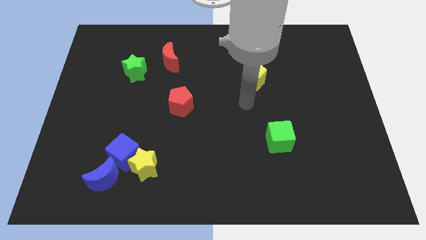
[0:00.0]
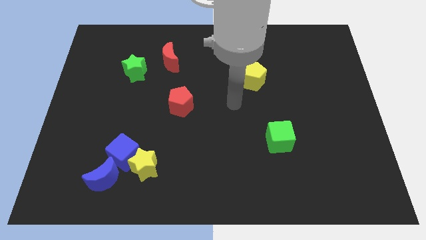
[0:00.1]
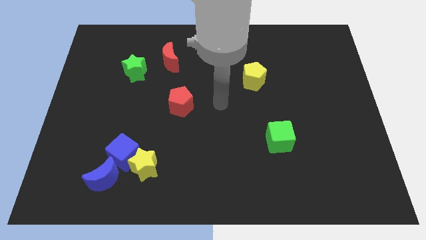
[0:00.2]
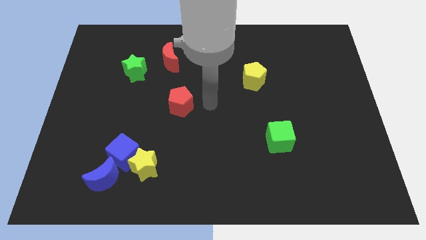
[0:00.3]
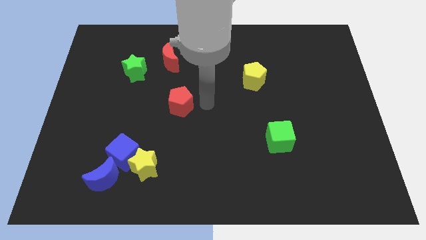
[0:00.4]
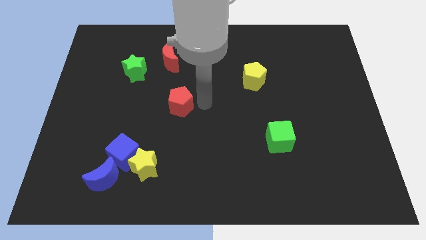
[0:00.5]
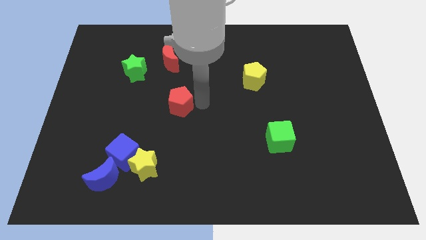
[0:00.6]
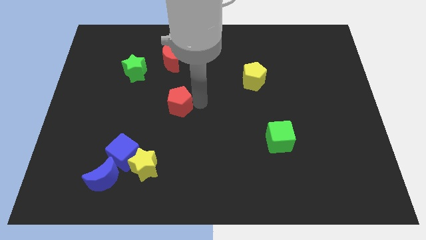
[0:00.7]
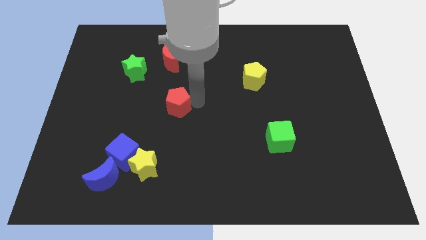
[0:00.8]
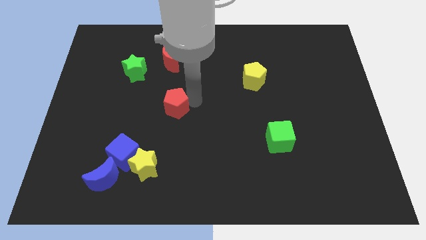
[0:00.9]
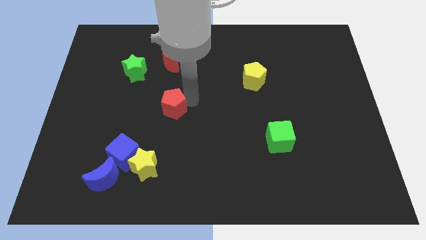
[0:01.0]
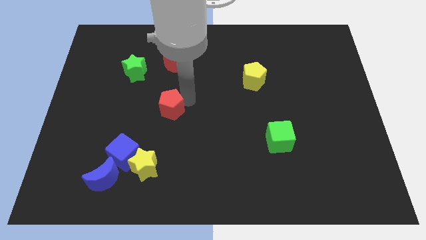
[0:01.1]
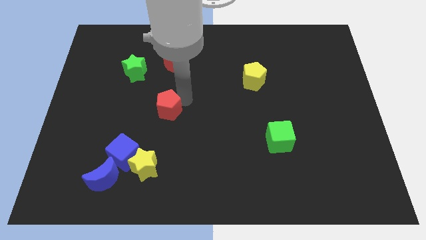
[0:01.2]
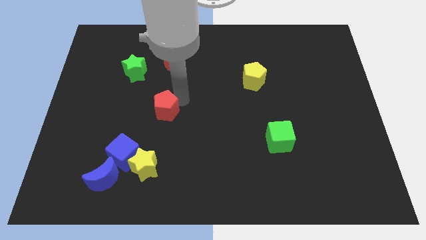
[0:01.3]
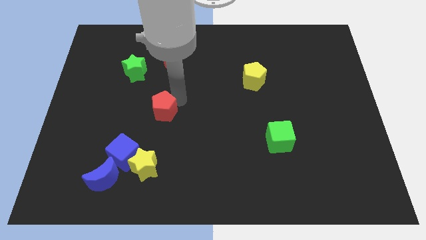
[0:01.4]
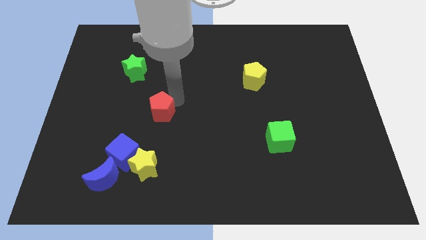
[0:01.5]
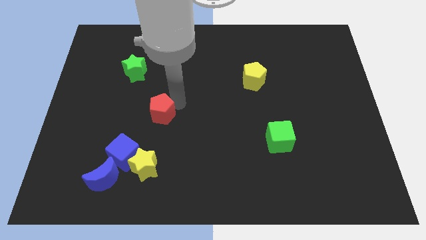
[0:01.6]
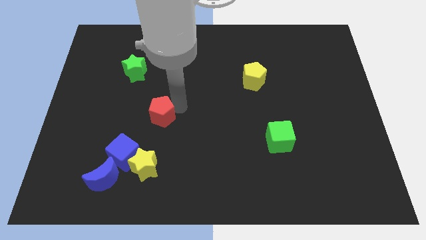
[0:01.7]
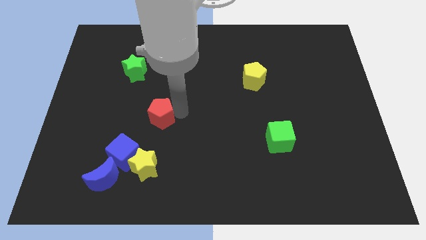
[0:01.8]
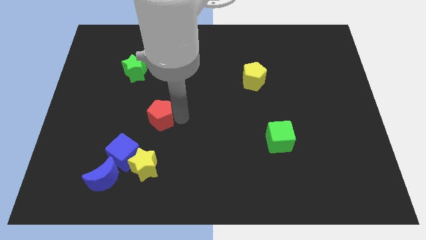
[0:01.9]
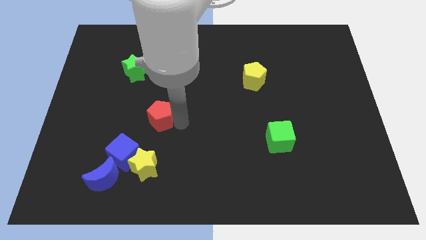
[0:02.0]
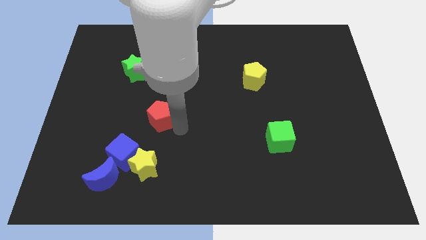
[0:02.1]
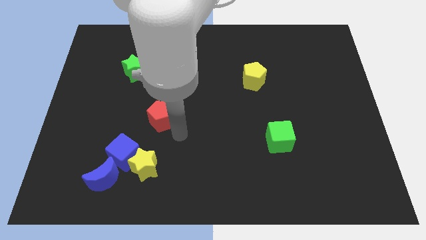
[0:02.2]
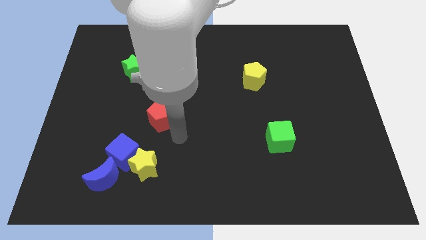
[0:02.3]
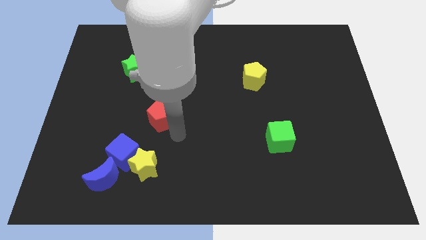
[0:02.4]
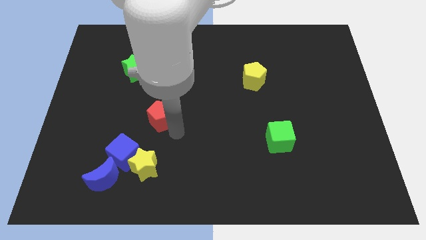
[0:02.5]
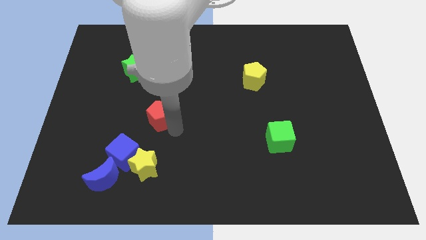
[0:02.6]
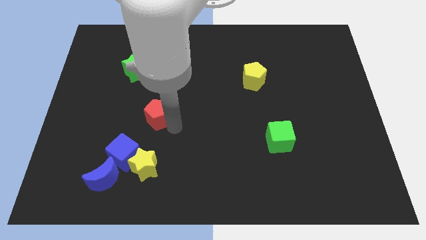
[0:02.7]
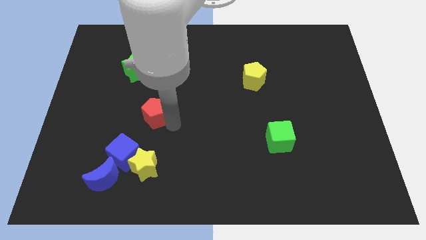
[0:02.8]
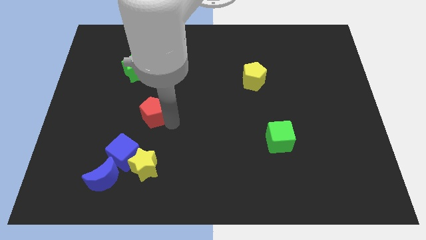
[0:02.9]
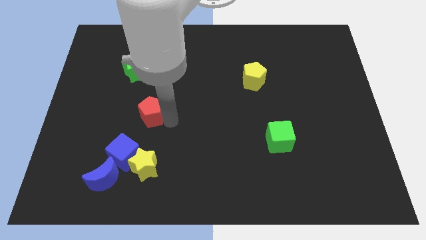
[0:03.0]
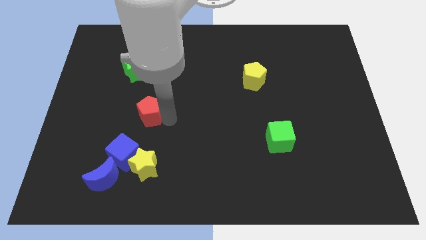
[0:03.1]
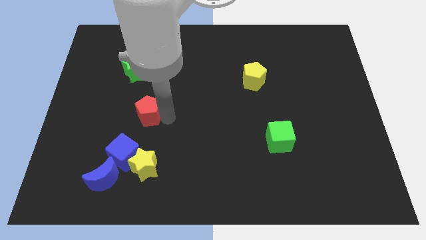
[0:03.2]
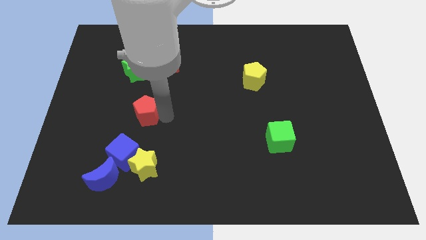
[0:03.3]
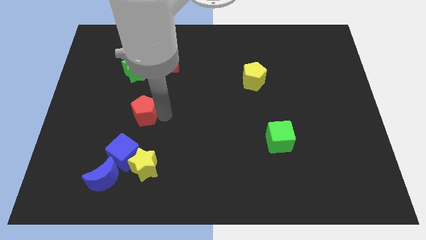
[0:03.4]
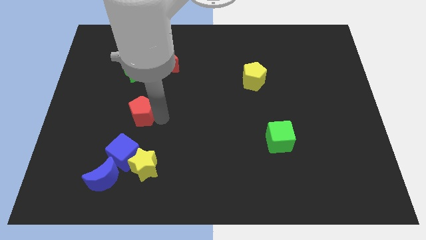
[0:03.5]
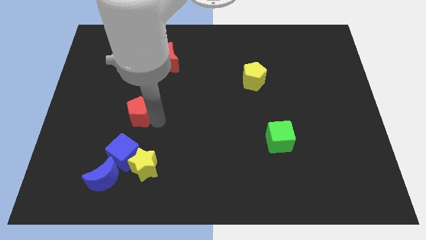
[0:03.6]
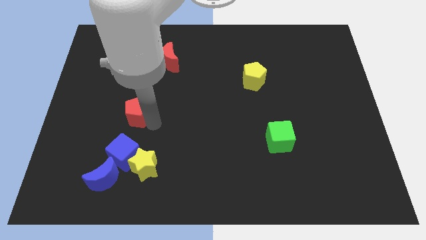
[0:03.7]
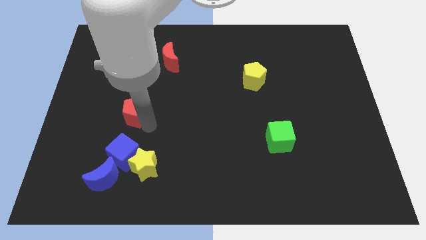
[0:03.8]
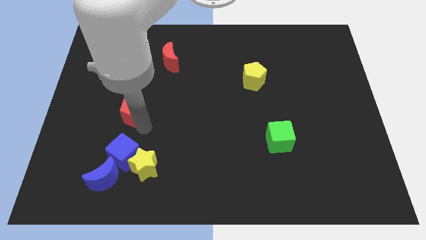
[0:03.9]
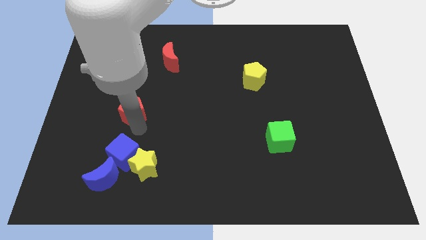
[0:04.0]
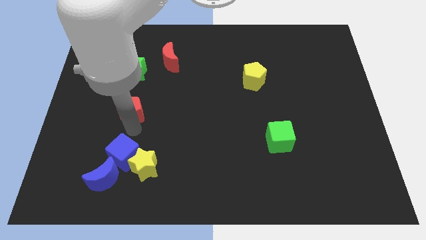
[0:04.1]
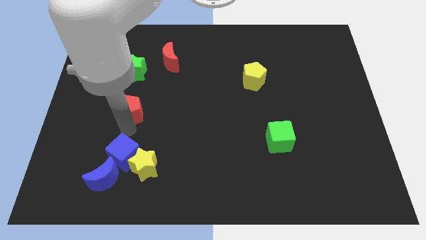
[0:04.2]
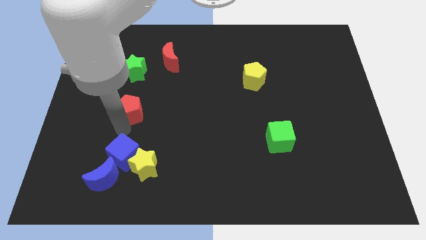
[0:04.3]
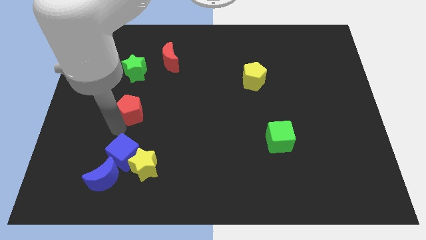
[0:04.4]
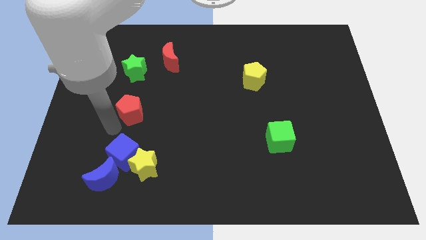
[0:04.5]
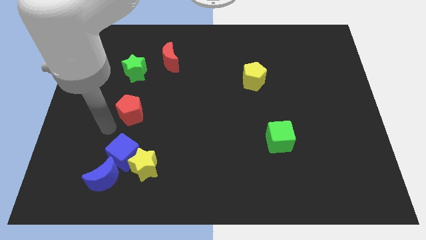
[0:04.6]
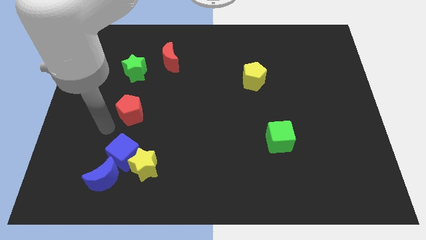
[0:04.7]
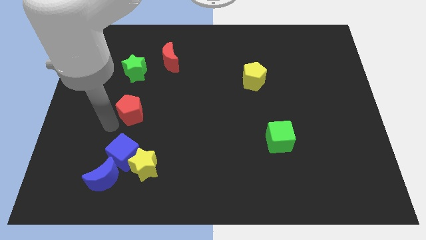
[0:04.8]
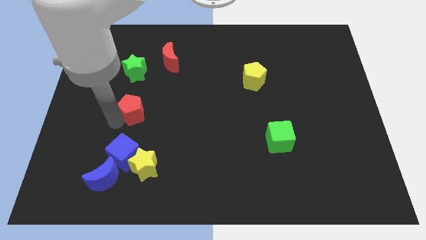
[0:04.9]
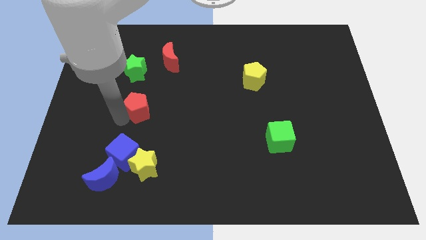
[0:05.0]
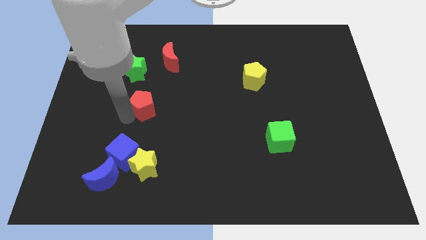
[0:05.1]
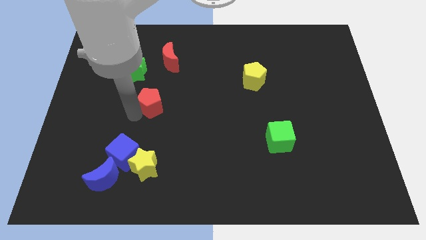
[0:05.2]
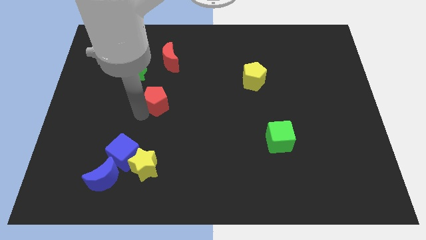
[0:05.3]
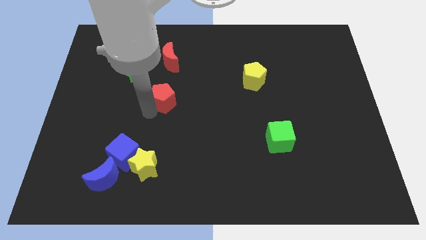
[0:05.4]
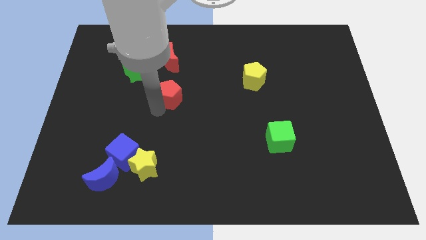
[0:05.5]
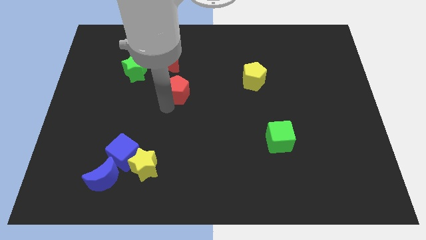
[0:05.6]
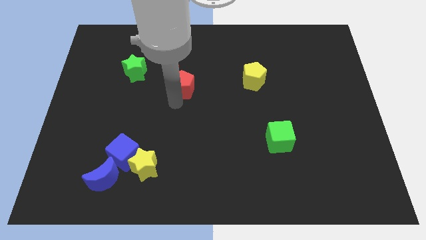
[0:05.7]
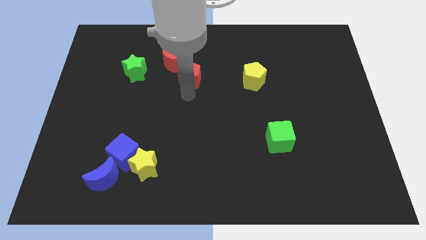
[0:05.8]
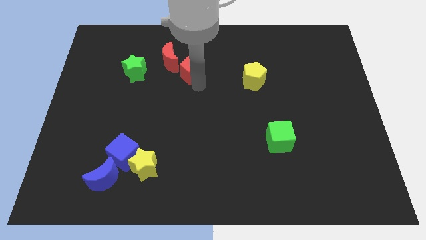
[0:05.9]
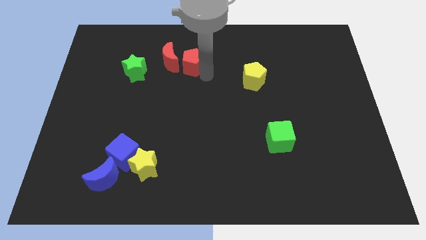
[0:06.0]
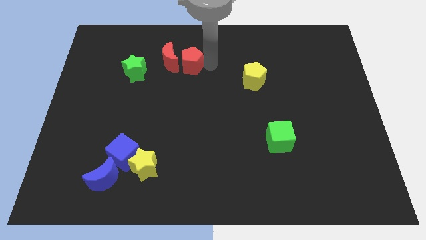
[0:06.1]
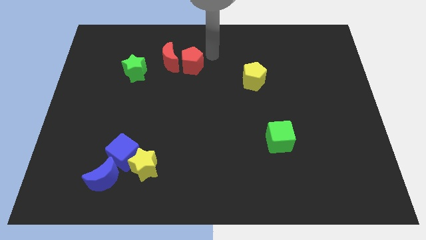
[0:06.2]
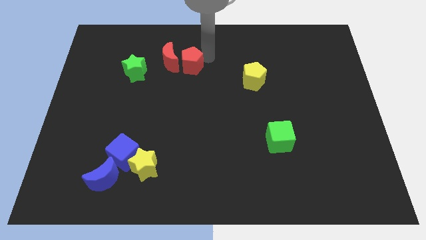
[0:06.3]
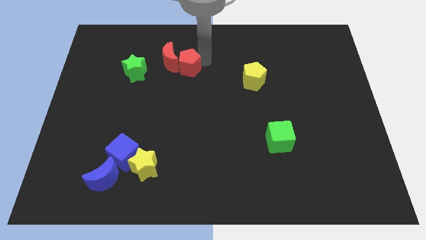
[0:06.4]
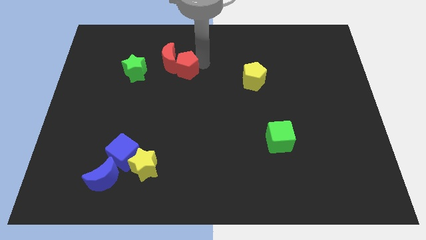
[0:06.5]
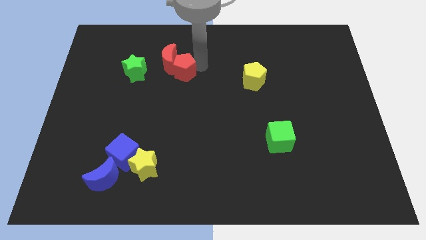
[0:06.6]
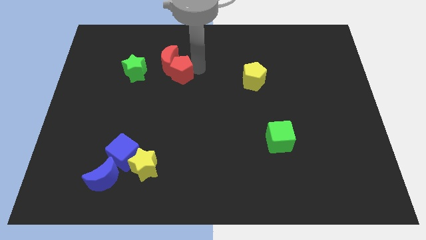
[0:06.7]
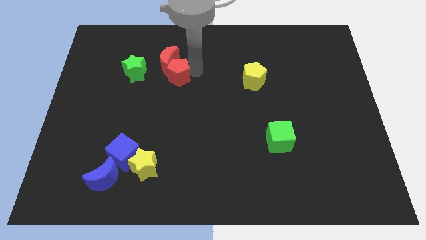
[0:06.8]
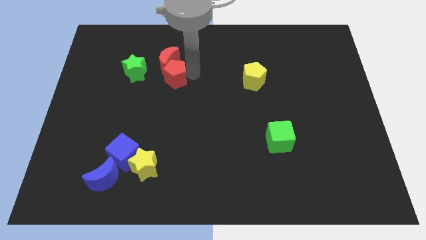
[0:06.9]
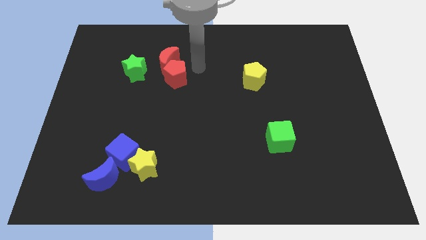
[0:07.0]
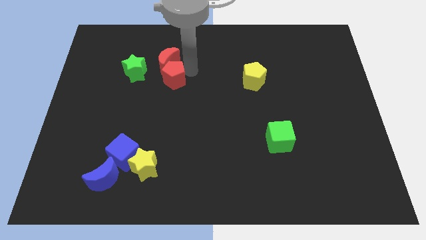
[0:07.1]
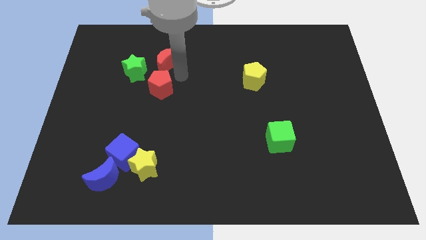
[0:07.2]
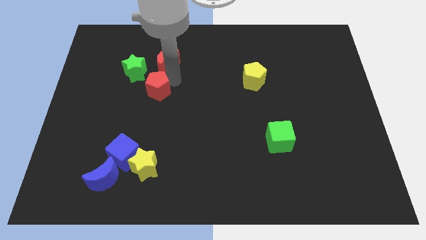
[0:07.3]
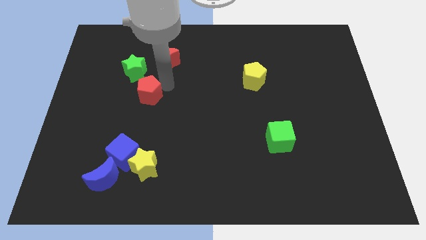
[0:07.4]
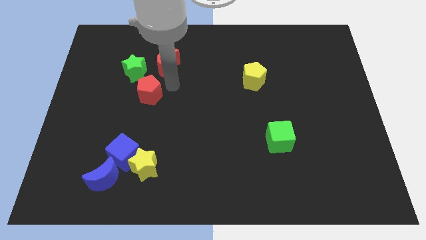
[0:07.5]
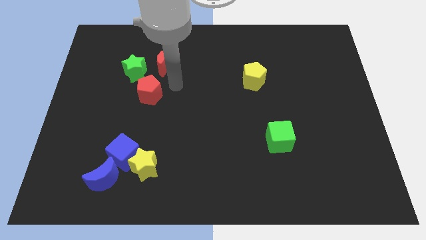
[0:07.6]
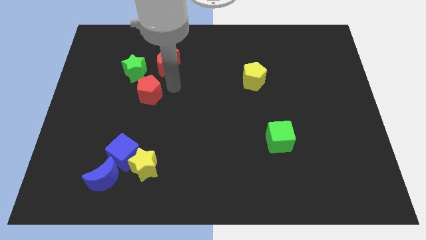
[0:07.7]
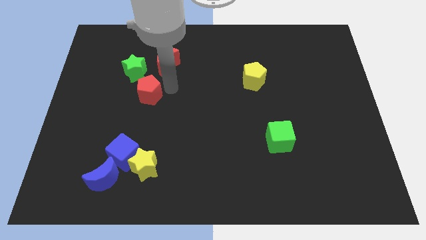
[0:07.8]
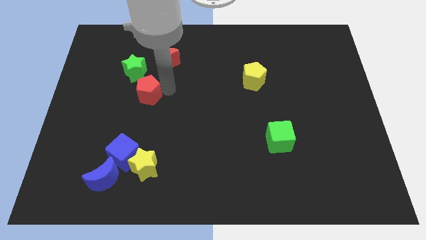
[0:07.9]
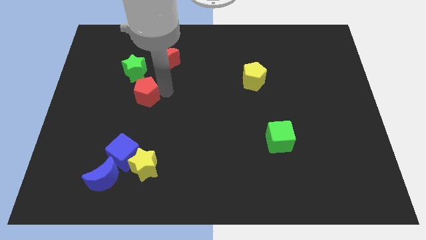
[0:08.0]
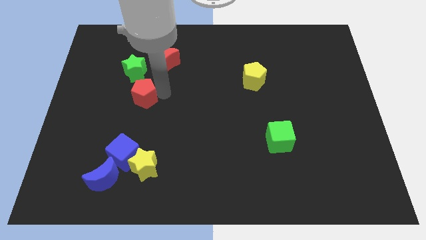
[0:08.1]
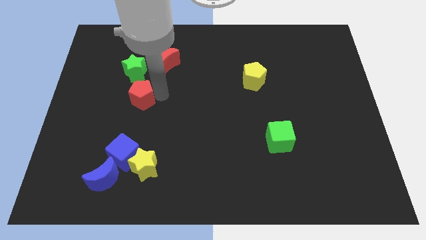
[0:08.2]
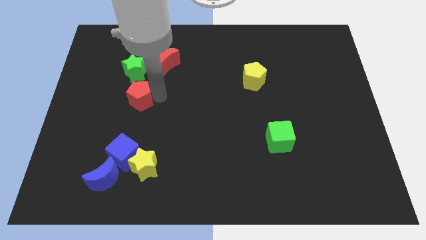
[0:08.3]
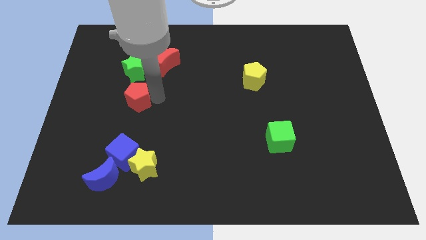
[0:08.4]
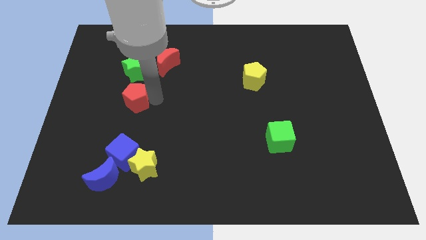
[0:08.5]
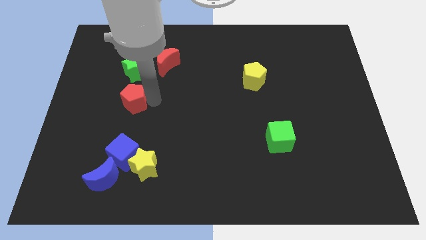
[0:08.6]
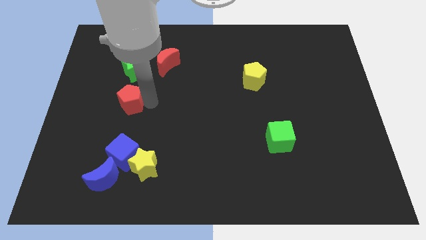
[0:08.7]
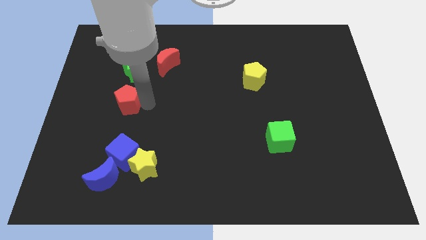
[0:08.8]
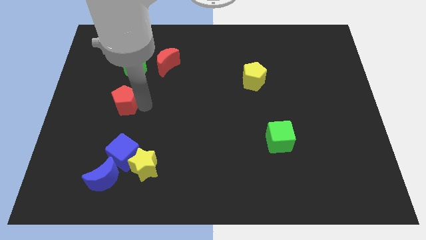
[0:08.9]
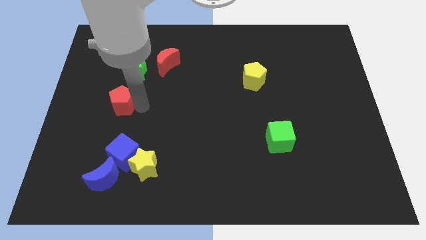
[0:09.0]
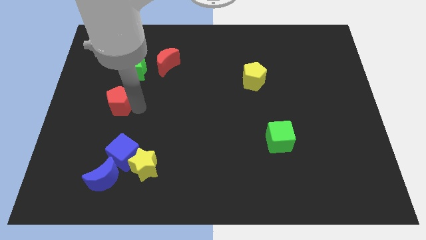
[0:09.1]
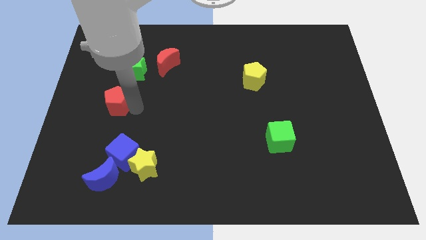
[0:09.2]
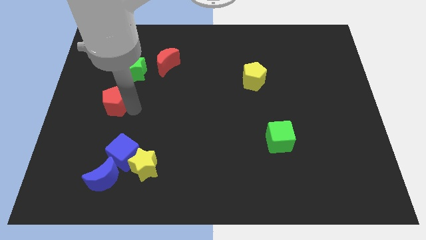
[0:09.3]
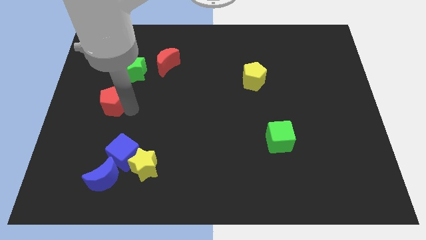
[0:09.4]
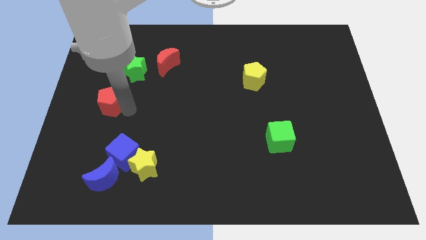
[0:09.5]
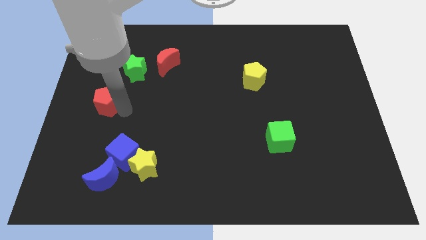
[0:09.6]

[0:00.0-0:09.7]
slide the red pentagon to the left side
